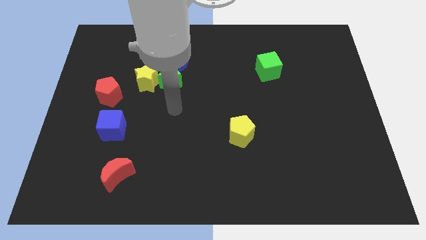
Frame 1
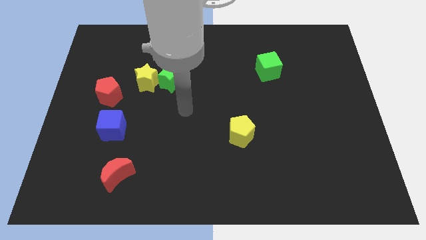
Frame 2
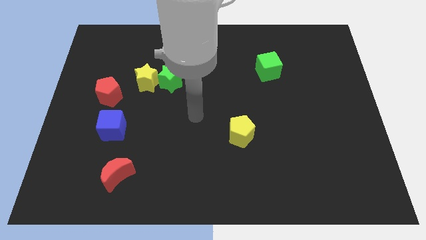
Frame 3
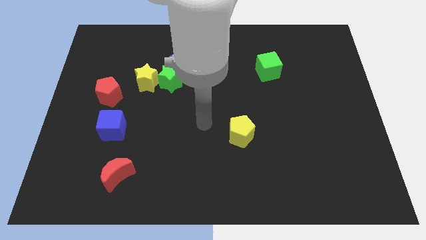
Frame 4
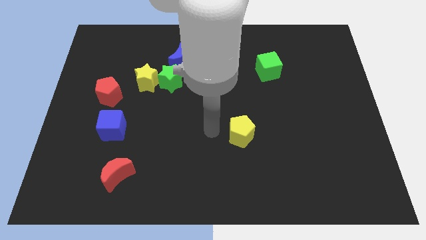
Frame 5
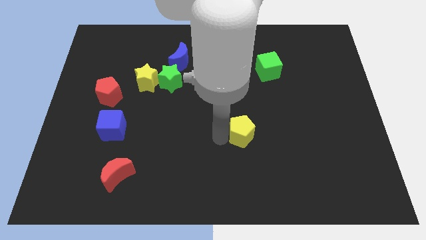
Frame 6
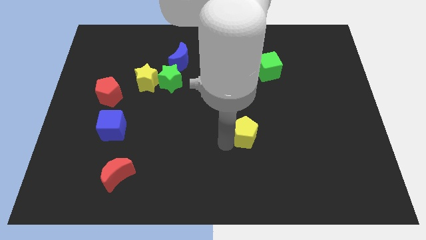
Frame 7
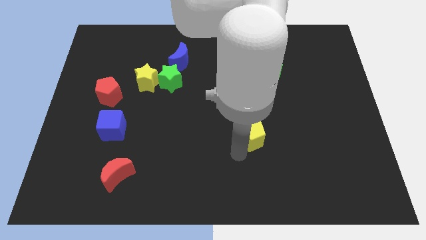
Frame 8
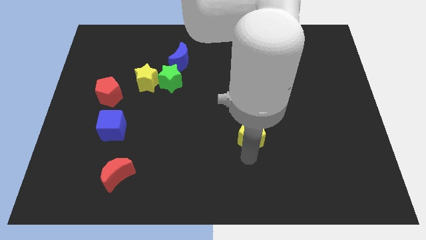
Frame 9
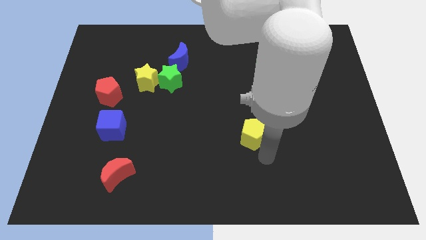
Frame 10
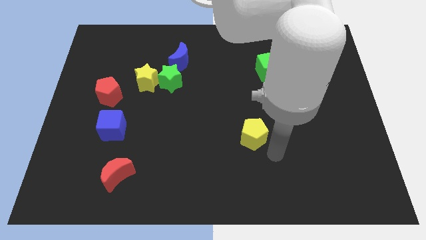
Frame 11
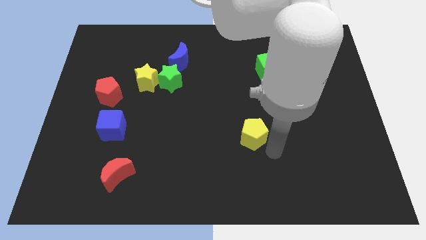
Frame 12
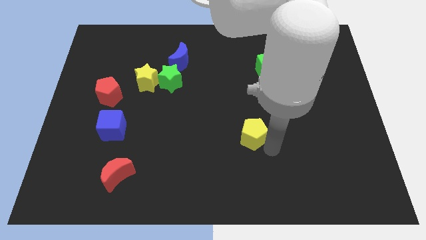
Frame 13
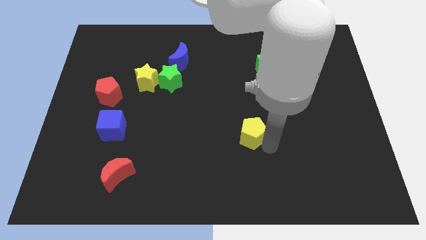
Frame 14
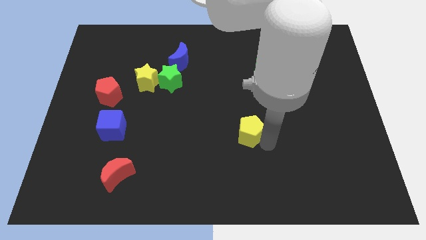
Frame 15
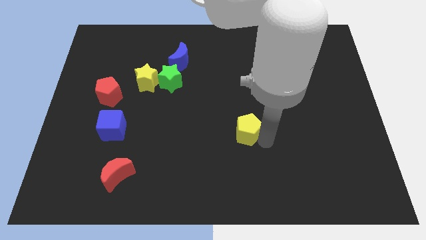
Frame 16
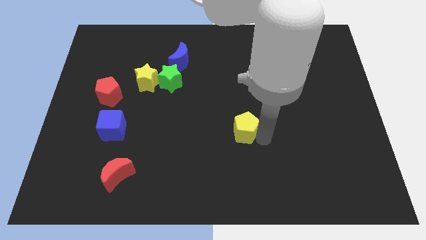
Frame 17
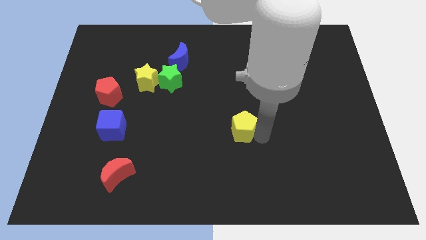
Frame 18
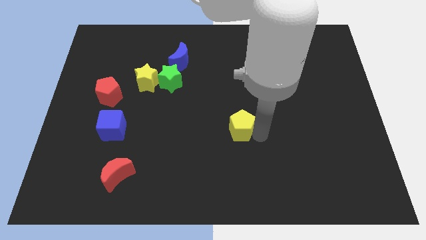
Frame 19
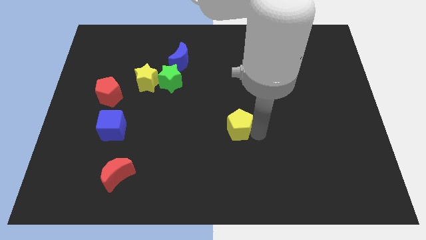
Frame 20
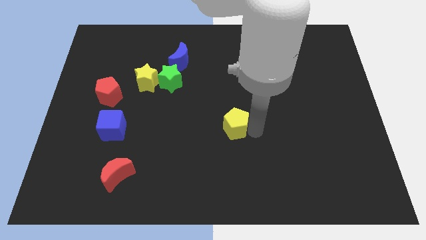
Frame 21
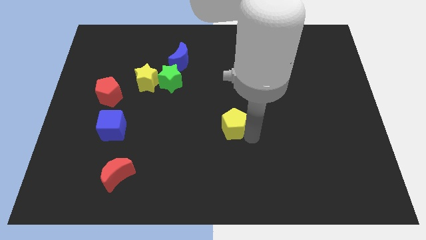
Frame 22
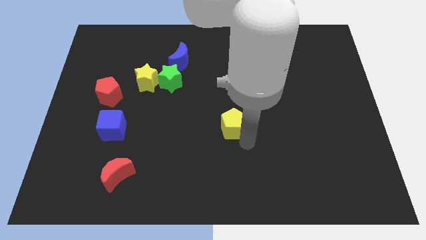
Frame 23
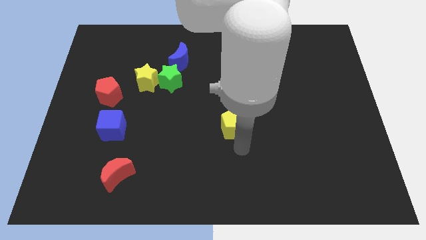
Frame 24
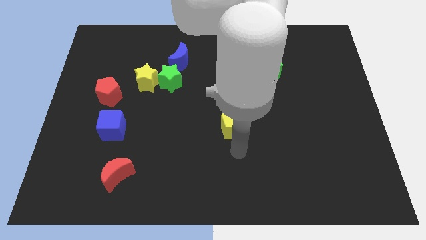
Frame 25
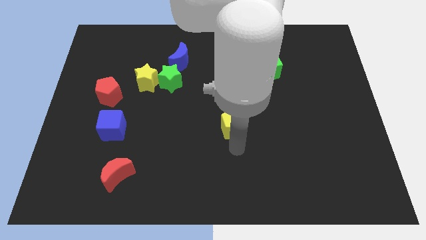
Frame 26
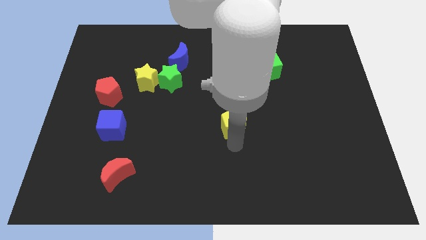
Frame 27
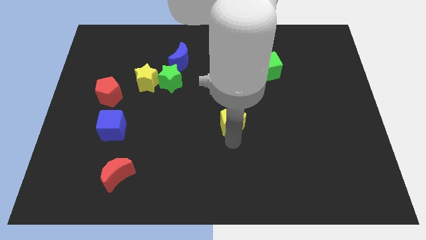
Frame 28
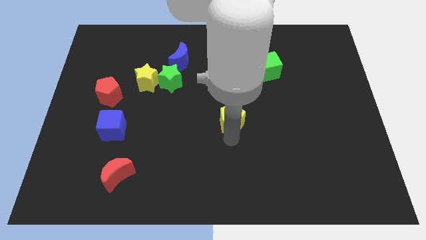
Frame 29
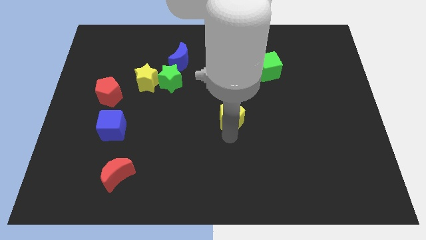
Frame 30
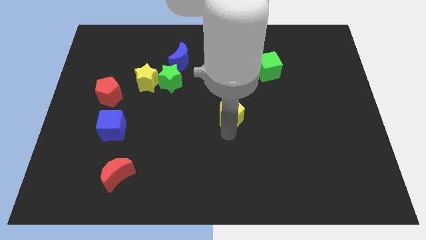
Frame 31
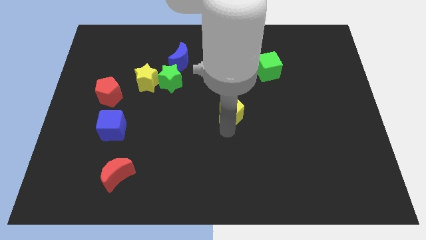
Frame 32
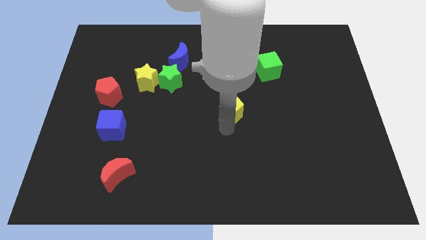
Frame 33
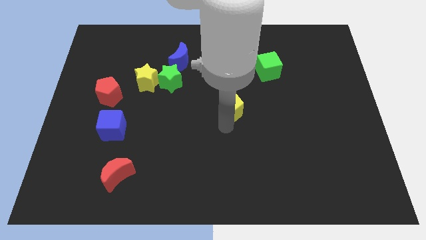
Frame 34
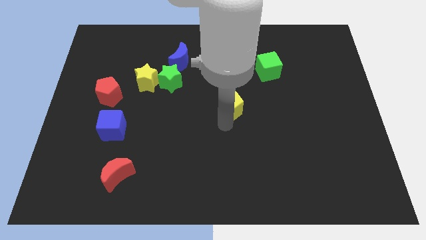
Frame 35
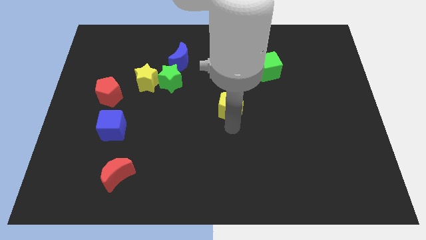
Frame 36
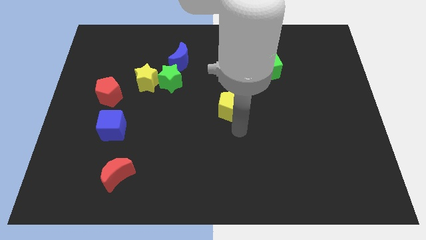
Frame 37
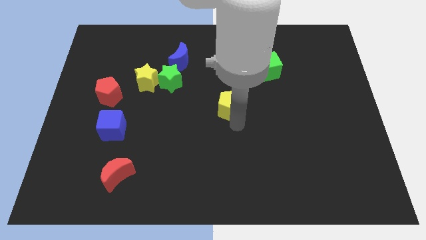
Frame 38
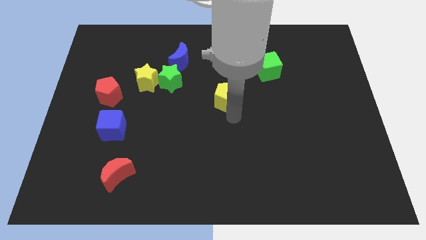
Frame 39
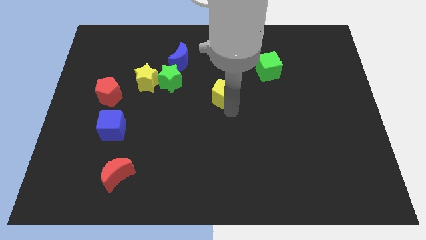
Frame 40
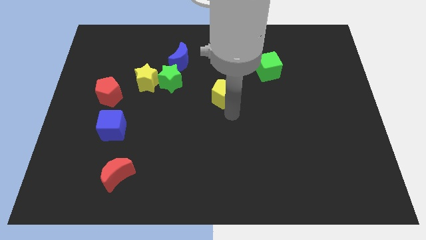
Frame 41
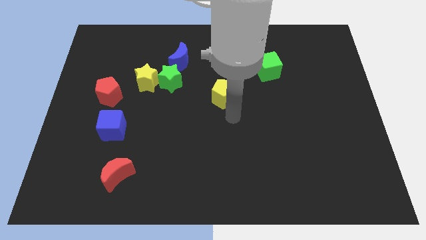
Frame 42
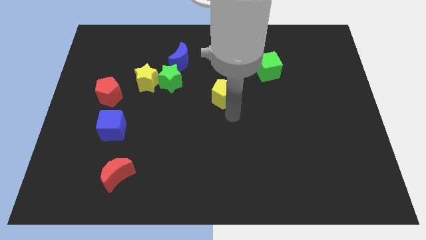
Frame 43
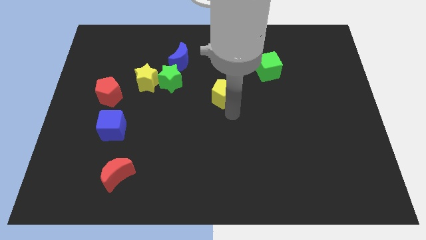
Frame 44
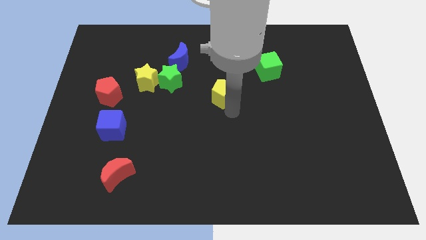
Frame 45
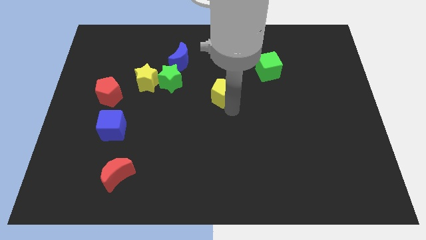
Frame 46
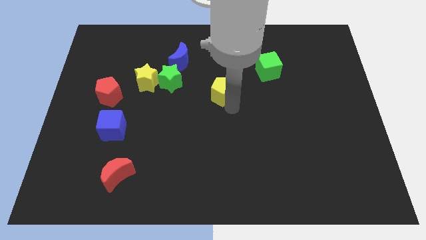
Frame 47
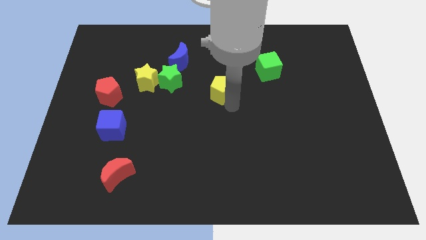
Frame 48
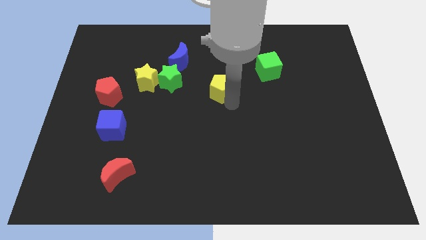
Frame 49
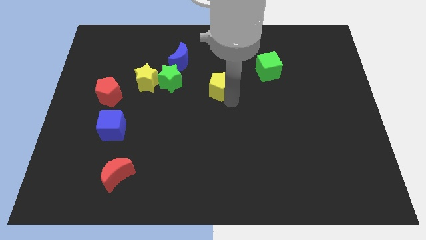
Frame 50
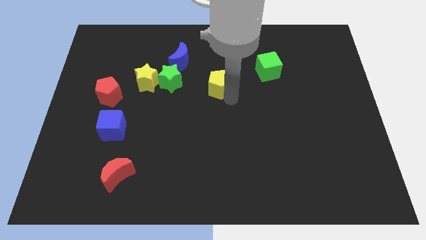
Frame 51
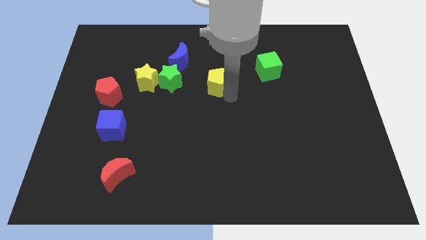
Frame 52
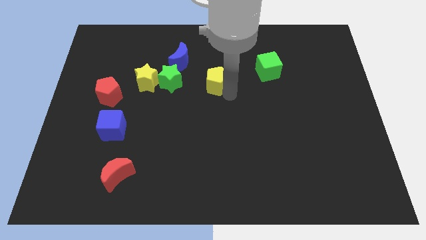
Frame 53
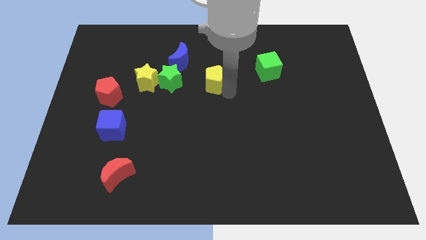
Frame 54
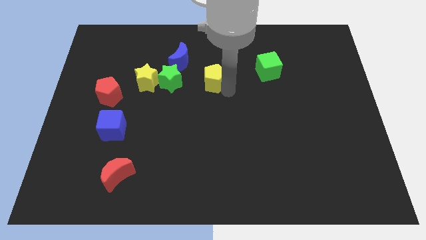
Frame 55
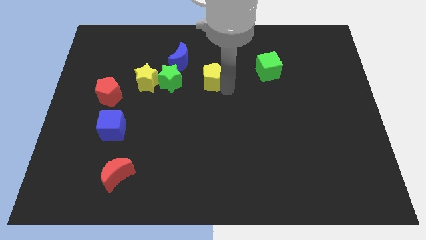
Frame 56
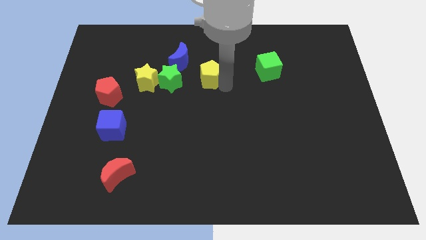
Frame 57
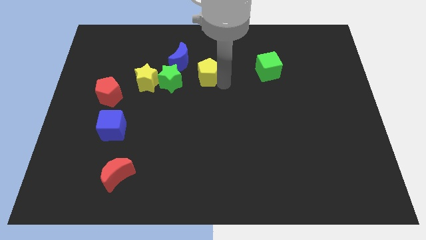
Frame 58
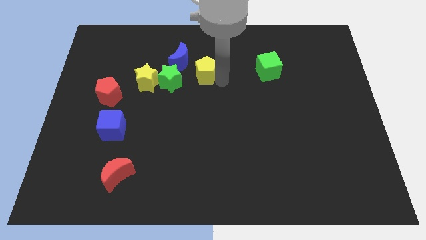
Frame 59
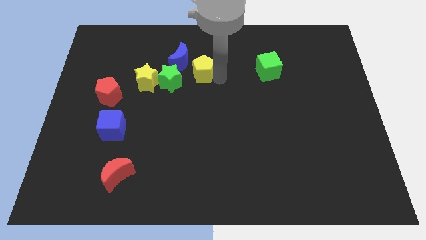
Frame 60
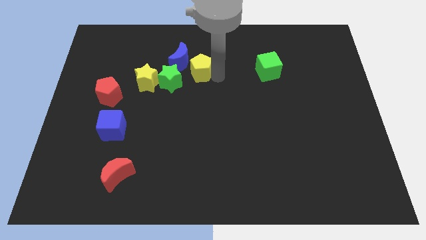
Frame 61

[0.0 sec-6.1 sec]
put the yellow pentagon next to the blue moon

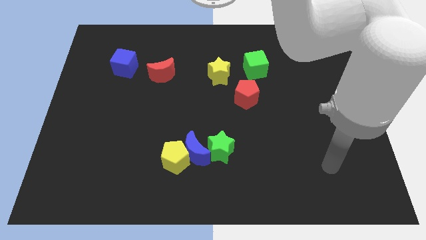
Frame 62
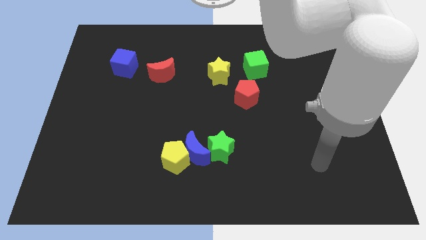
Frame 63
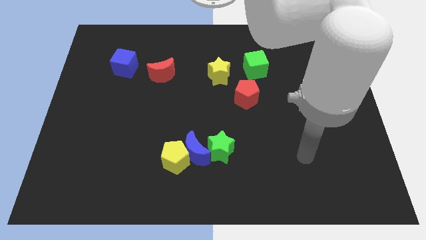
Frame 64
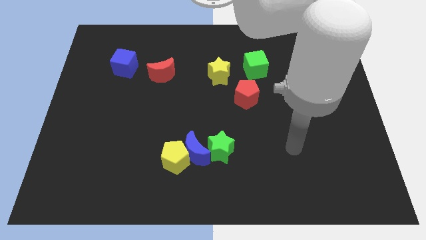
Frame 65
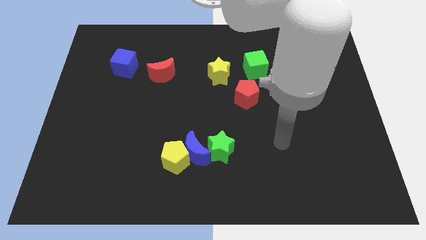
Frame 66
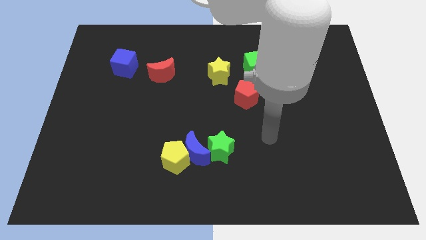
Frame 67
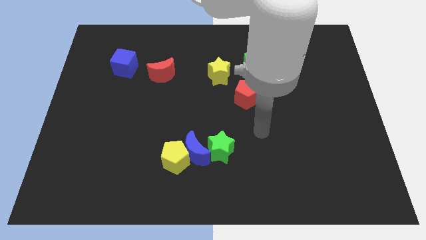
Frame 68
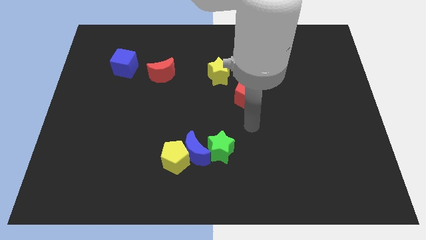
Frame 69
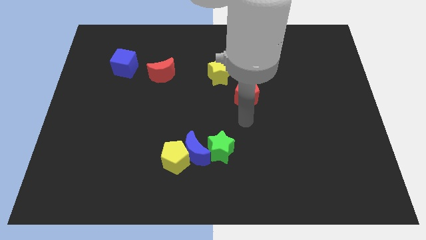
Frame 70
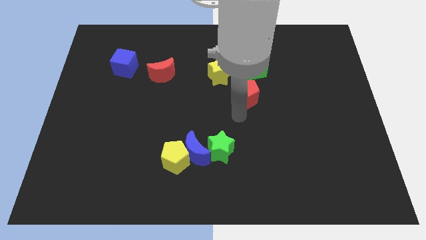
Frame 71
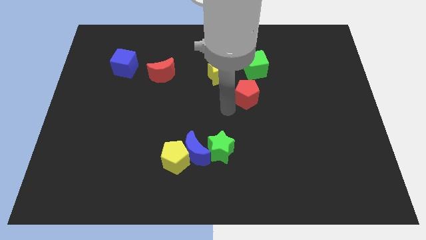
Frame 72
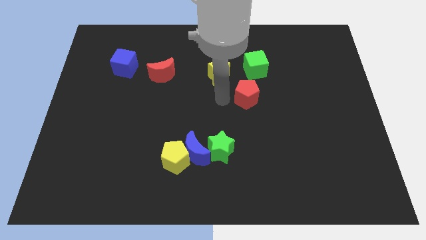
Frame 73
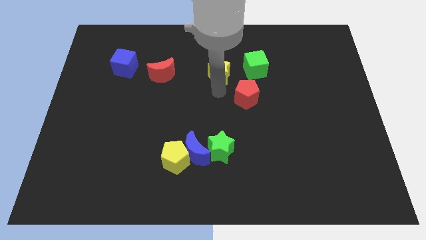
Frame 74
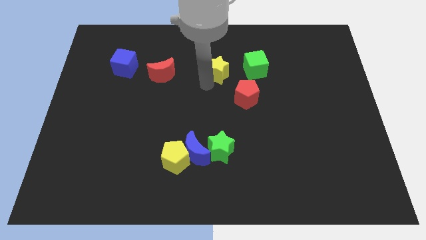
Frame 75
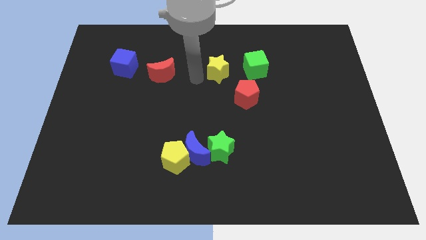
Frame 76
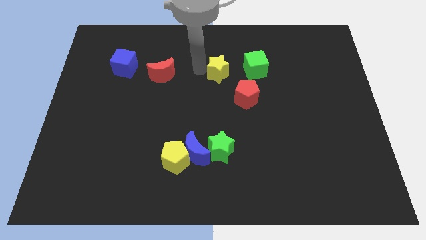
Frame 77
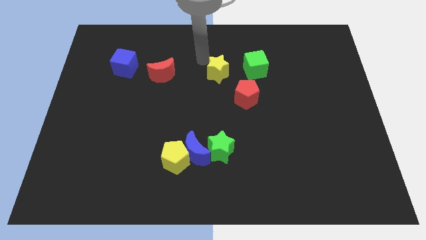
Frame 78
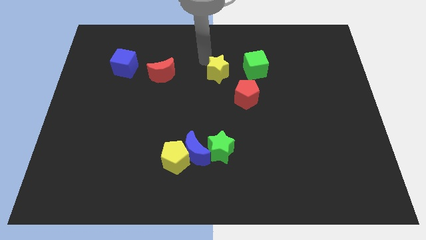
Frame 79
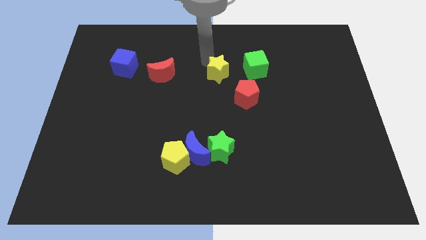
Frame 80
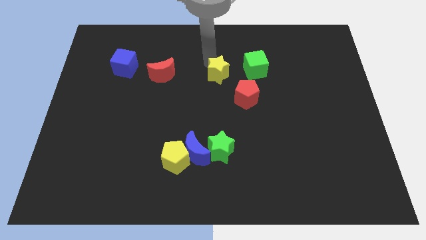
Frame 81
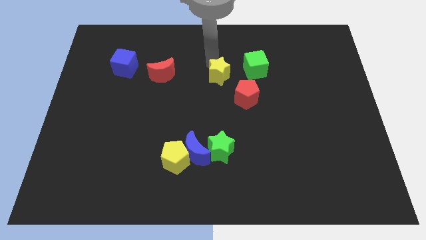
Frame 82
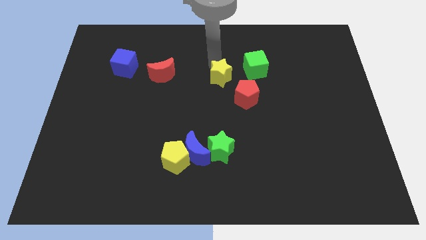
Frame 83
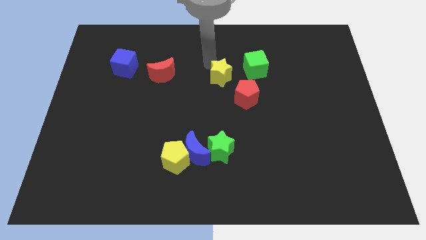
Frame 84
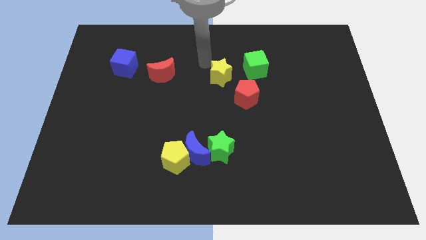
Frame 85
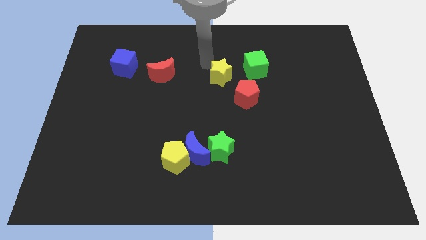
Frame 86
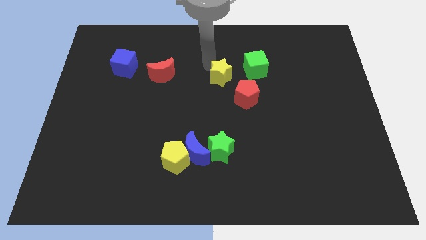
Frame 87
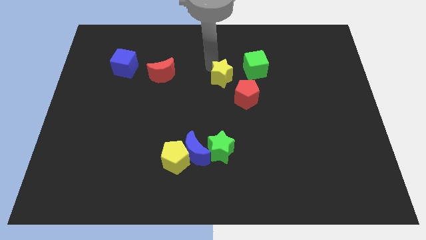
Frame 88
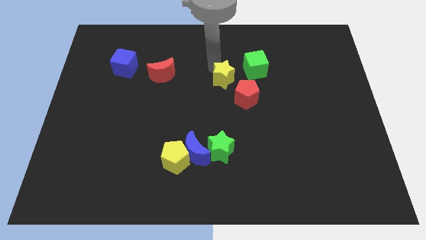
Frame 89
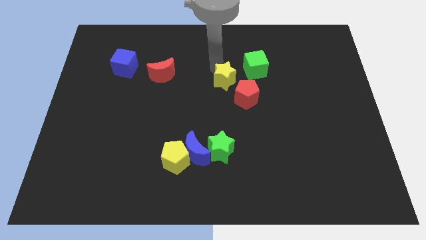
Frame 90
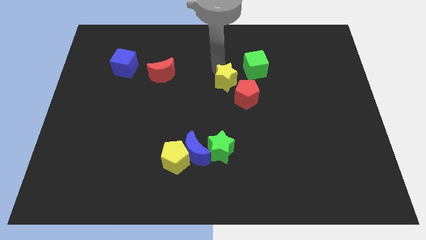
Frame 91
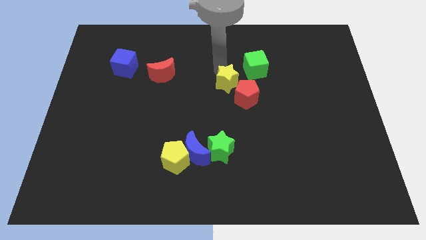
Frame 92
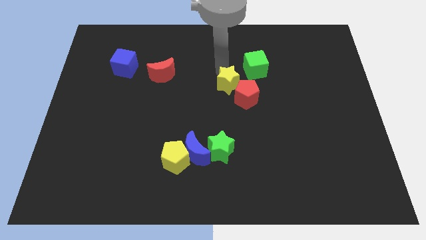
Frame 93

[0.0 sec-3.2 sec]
put the yellow star to the red pentagon
